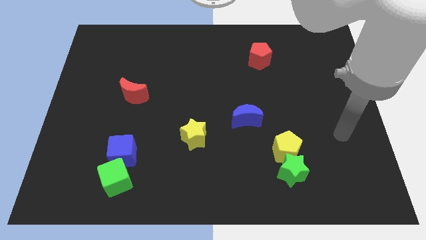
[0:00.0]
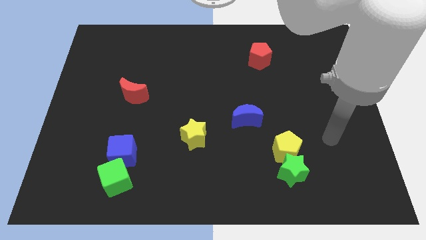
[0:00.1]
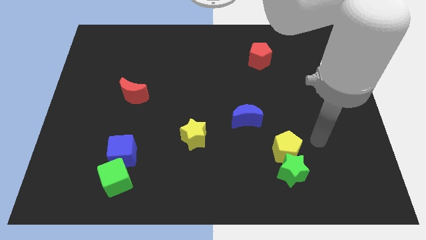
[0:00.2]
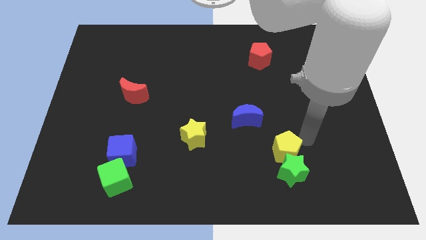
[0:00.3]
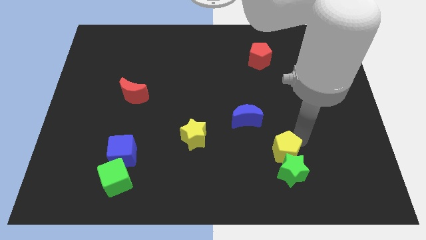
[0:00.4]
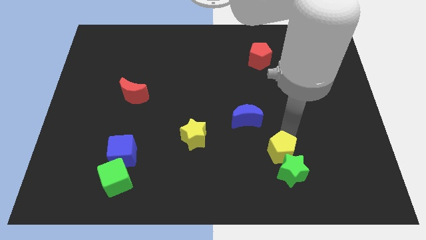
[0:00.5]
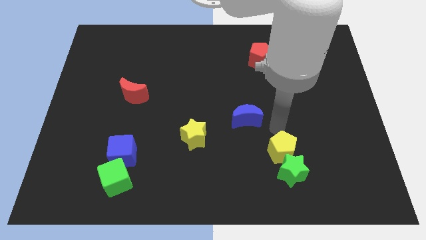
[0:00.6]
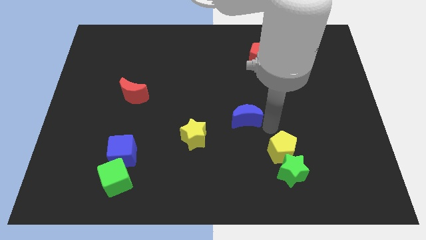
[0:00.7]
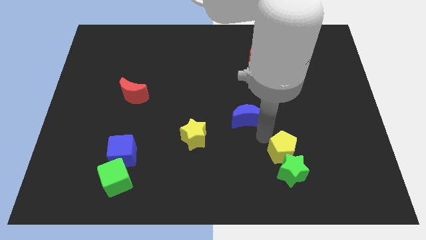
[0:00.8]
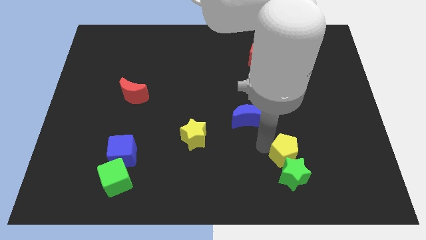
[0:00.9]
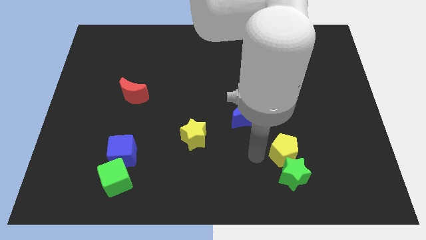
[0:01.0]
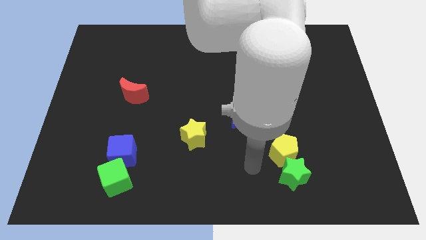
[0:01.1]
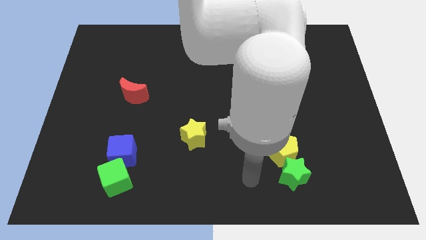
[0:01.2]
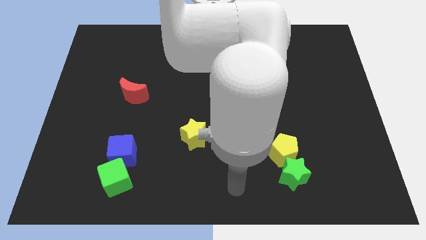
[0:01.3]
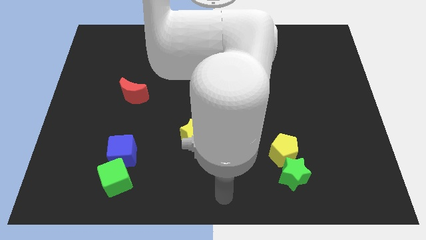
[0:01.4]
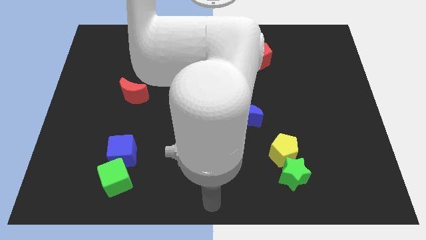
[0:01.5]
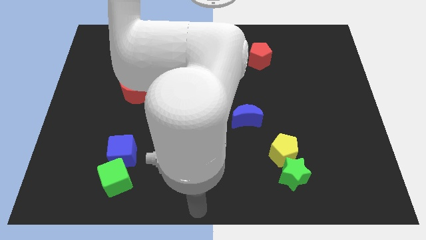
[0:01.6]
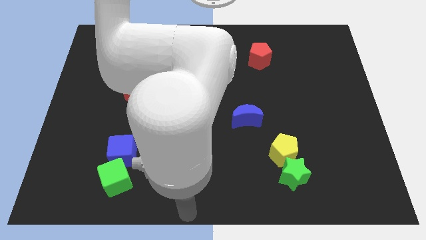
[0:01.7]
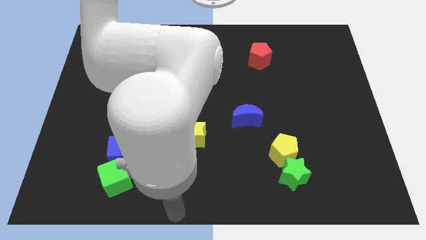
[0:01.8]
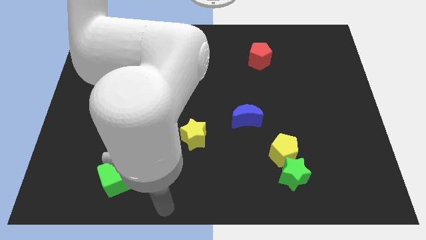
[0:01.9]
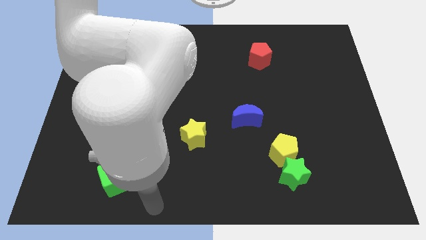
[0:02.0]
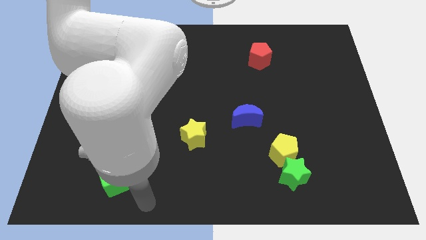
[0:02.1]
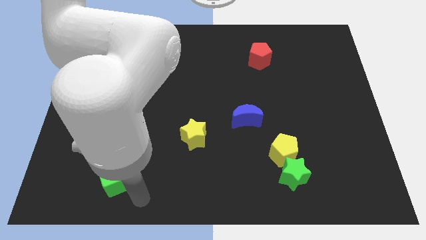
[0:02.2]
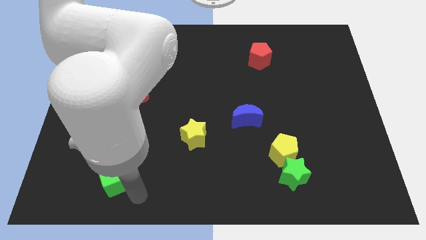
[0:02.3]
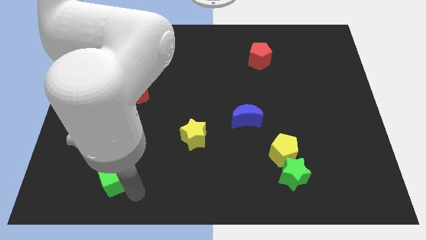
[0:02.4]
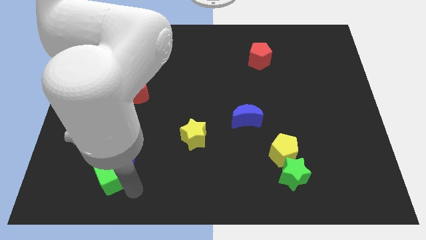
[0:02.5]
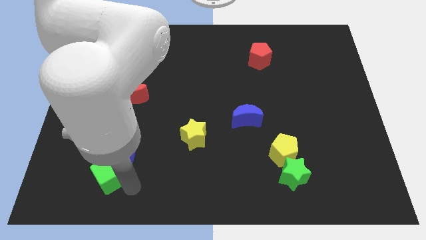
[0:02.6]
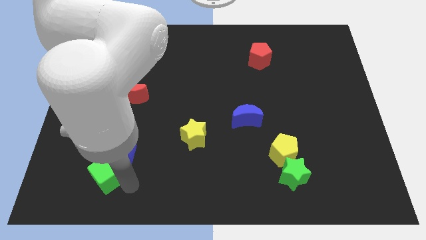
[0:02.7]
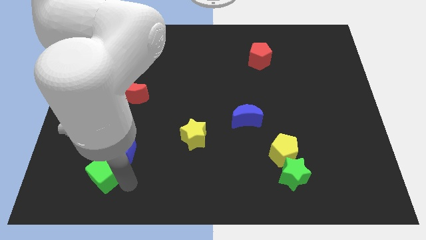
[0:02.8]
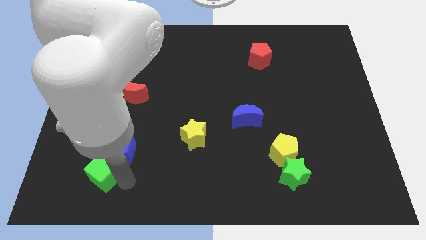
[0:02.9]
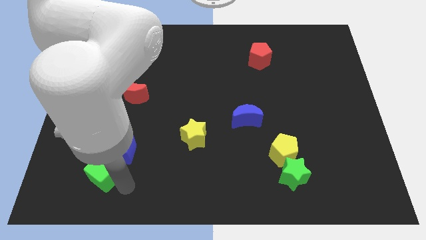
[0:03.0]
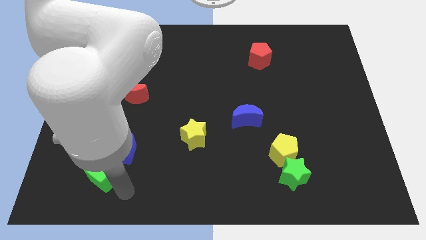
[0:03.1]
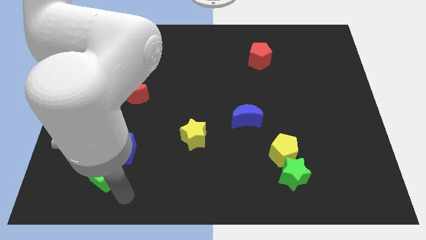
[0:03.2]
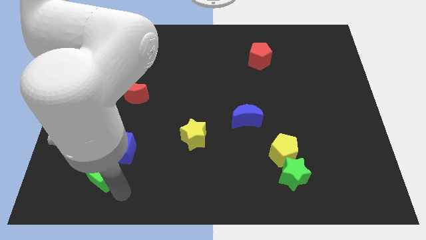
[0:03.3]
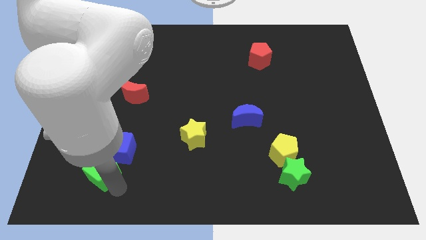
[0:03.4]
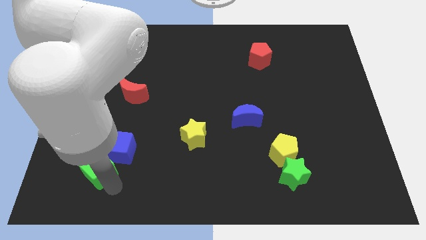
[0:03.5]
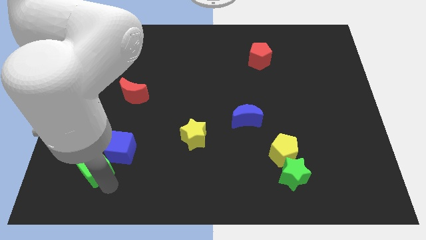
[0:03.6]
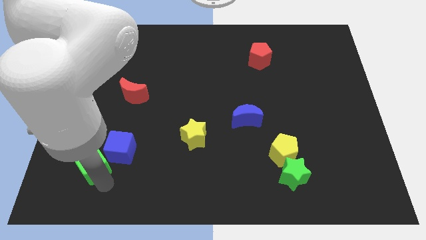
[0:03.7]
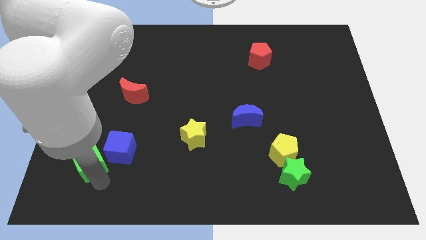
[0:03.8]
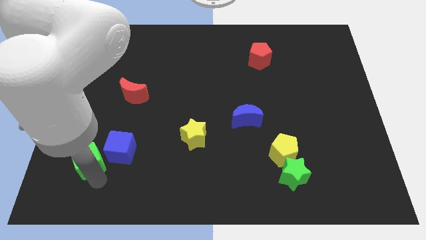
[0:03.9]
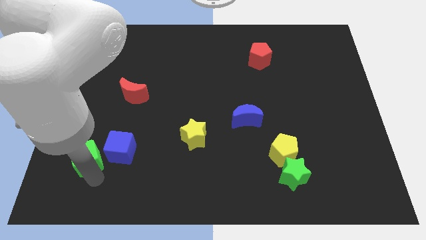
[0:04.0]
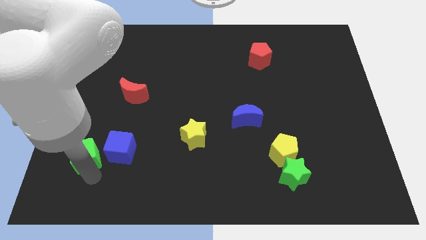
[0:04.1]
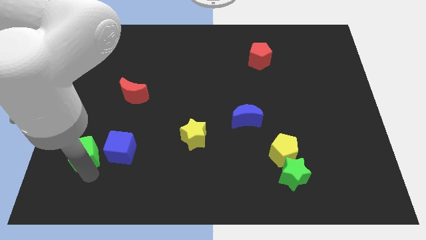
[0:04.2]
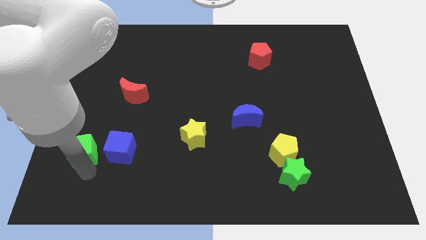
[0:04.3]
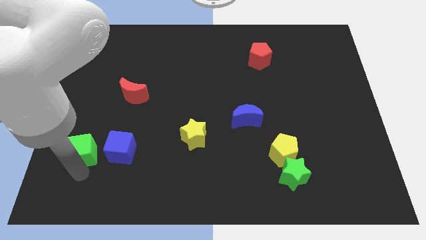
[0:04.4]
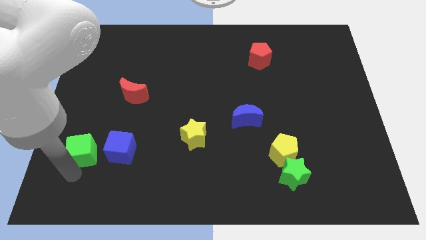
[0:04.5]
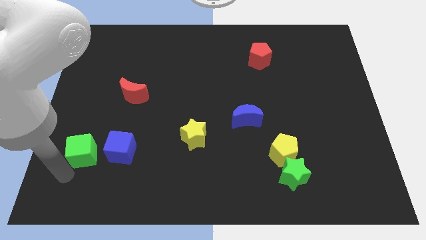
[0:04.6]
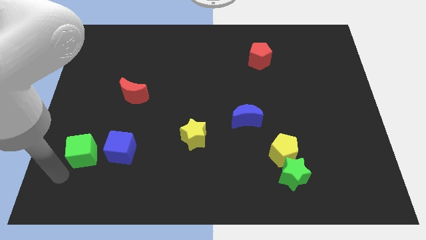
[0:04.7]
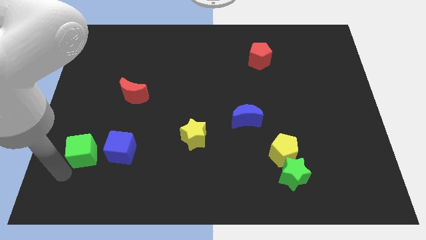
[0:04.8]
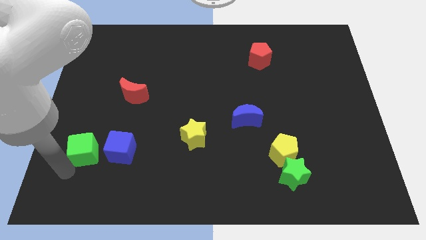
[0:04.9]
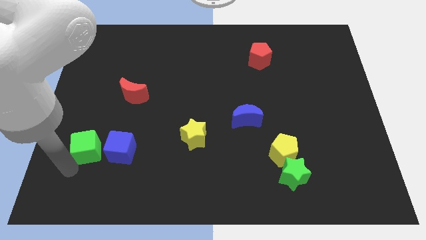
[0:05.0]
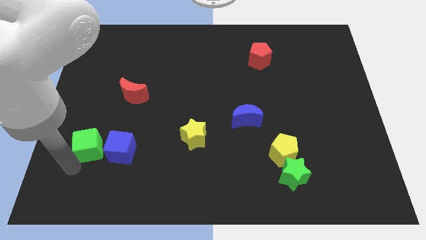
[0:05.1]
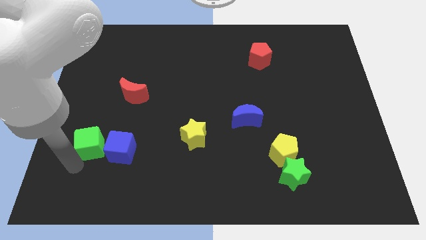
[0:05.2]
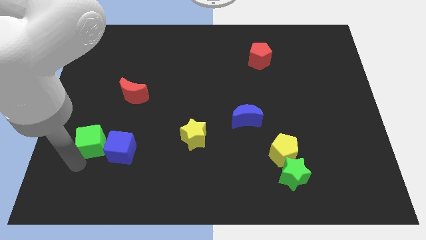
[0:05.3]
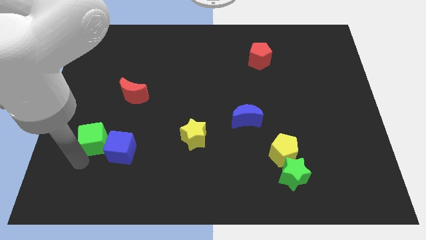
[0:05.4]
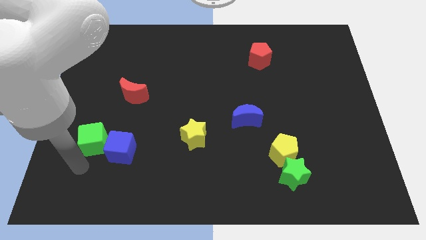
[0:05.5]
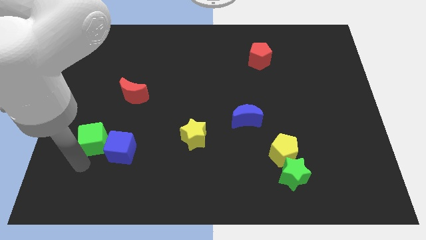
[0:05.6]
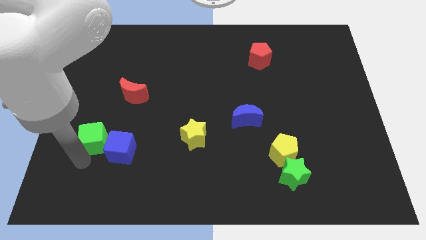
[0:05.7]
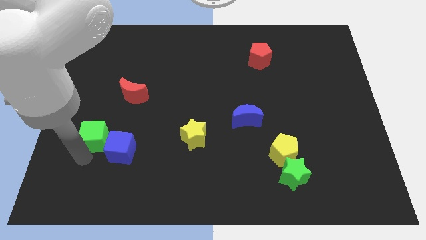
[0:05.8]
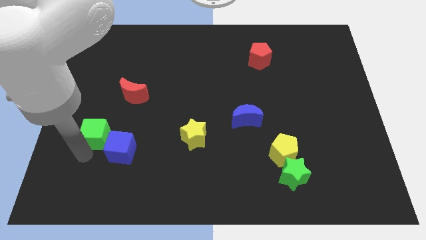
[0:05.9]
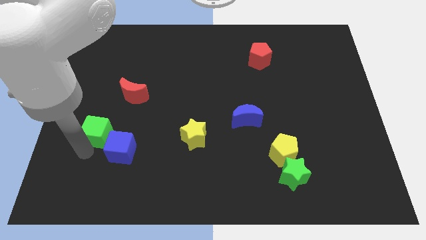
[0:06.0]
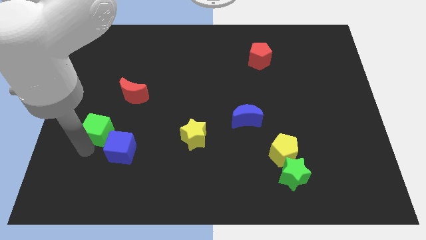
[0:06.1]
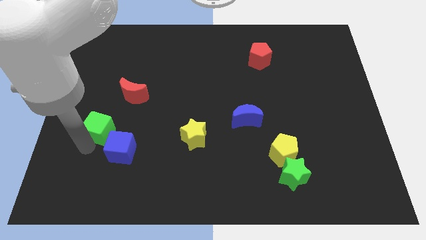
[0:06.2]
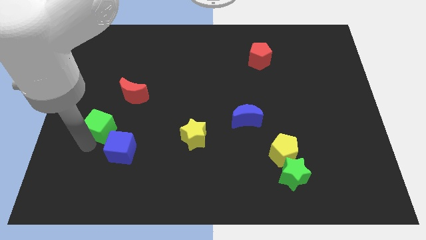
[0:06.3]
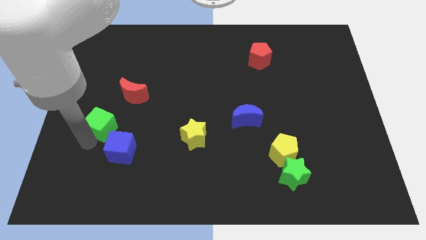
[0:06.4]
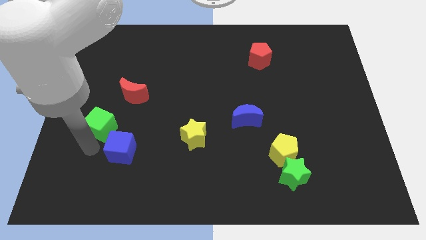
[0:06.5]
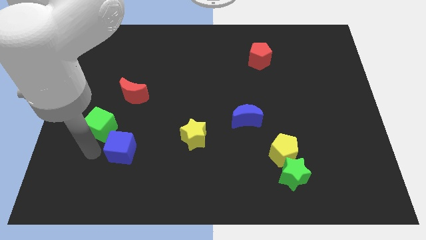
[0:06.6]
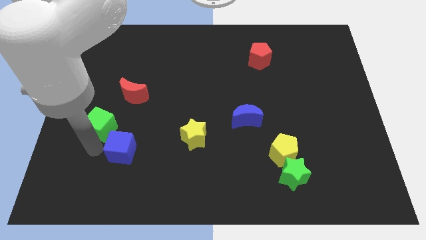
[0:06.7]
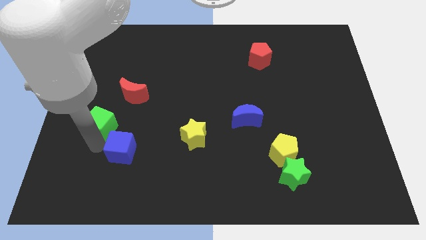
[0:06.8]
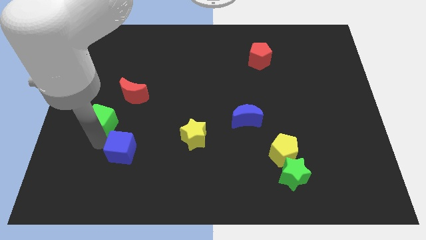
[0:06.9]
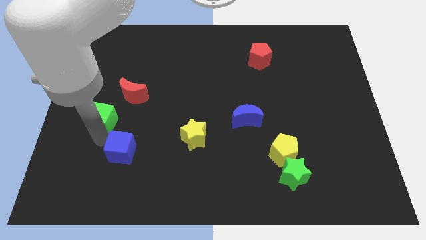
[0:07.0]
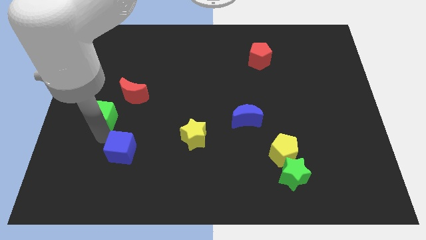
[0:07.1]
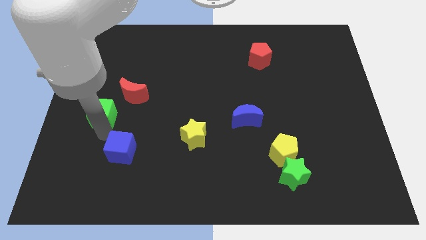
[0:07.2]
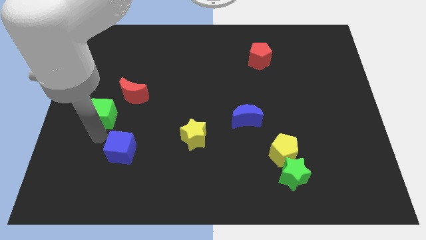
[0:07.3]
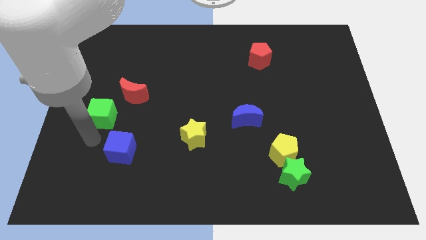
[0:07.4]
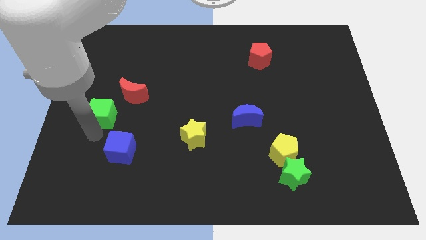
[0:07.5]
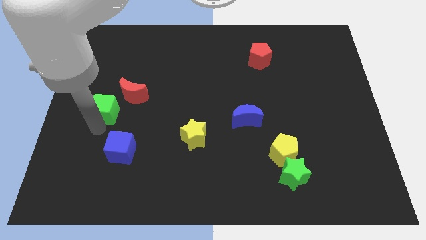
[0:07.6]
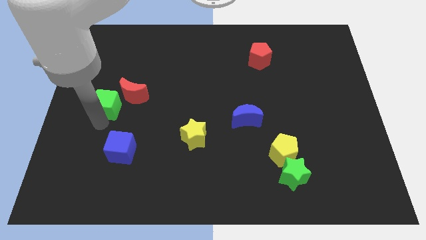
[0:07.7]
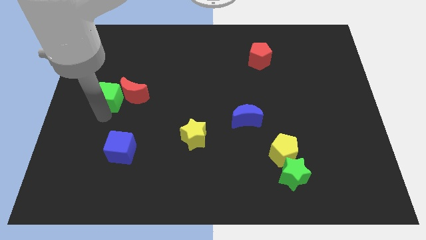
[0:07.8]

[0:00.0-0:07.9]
move the green cube up
